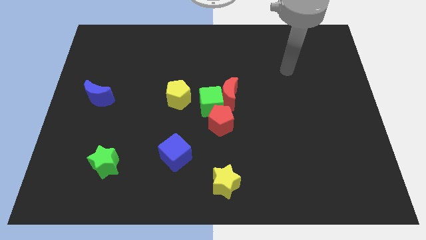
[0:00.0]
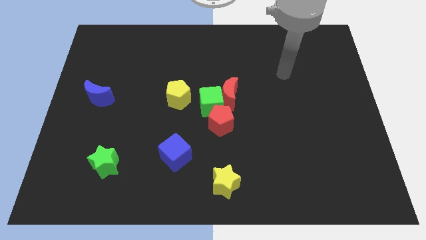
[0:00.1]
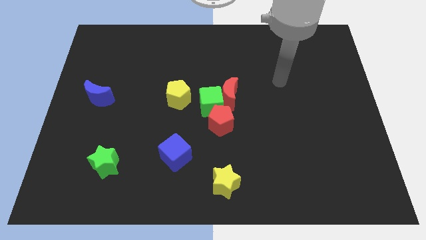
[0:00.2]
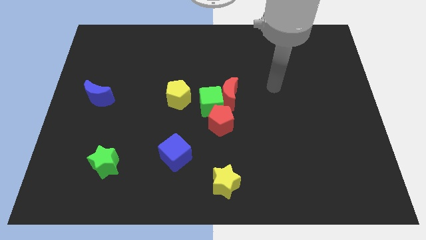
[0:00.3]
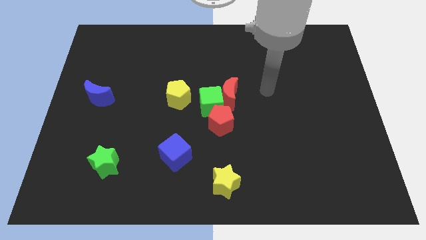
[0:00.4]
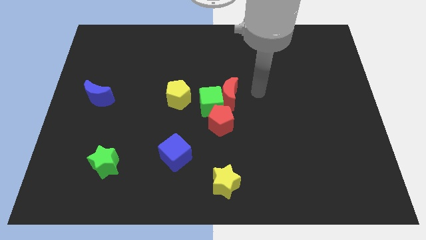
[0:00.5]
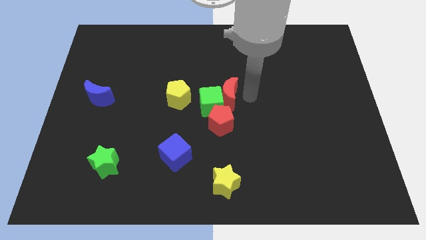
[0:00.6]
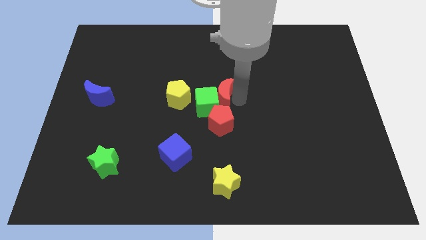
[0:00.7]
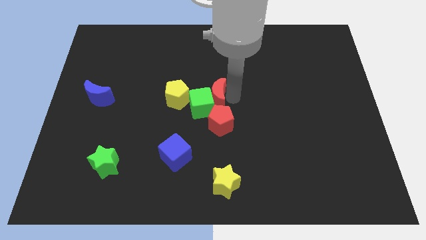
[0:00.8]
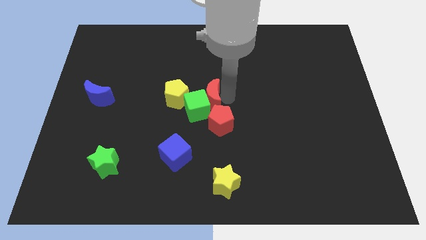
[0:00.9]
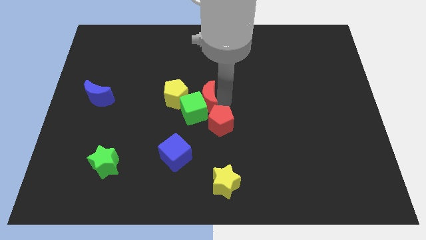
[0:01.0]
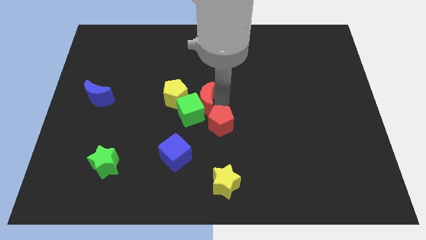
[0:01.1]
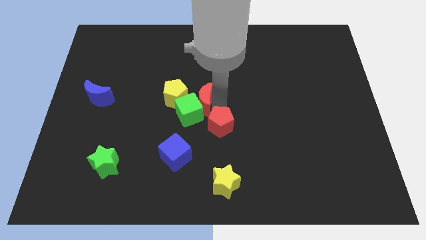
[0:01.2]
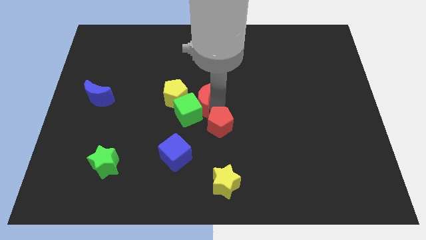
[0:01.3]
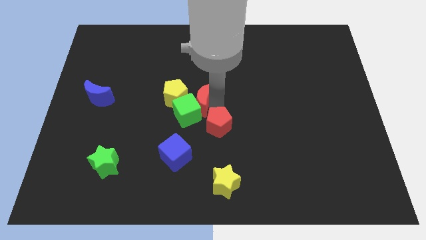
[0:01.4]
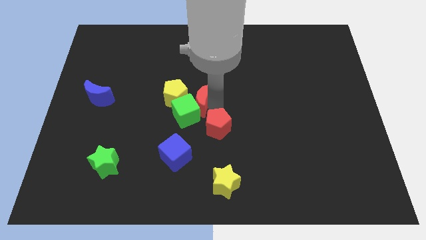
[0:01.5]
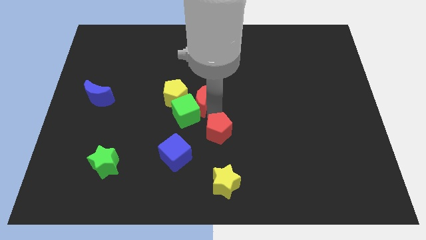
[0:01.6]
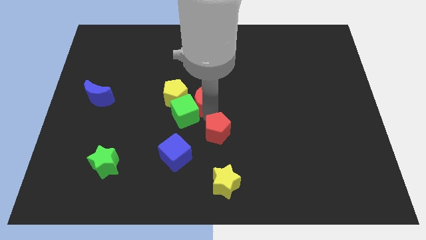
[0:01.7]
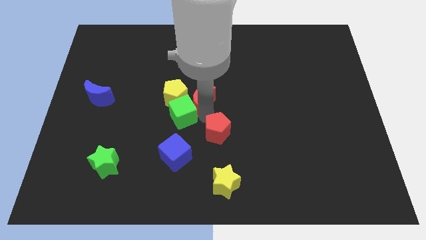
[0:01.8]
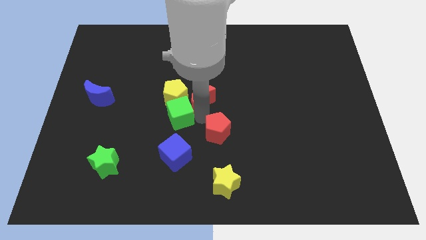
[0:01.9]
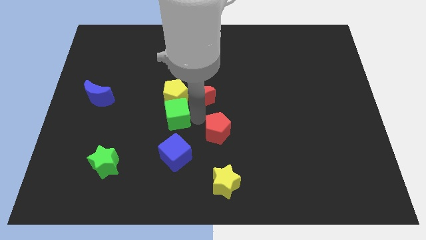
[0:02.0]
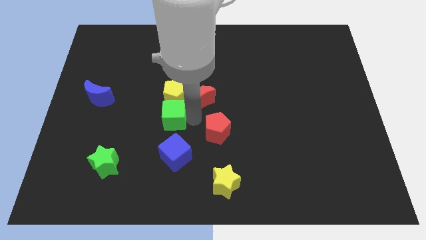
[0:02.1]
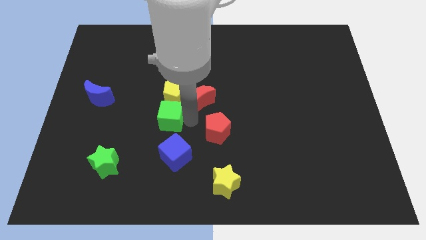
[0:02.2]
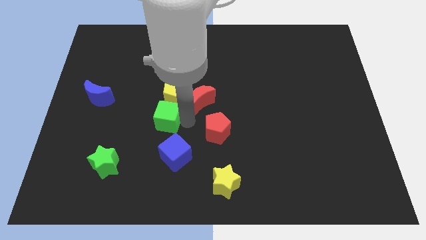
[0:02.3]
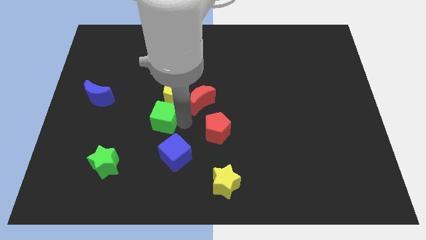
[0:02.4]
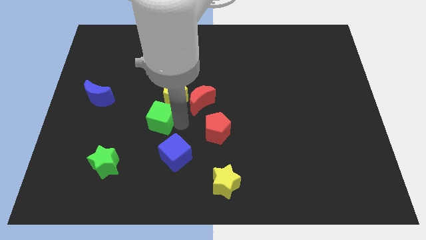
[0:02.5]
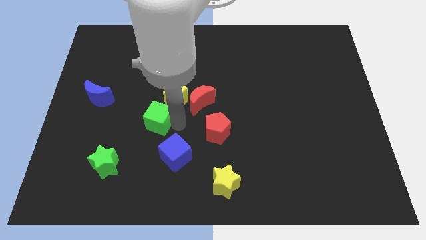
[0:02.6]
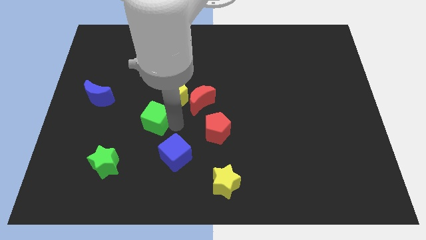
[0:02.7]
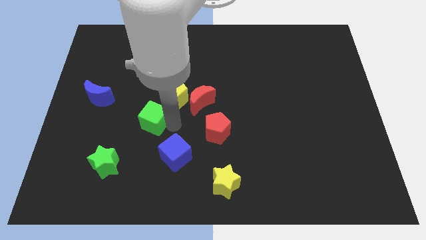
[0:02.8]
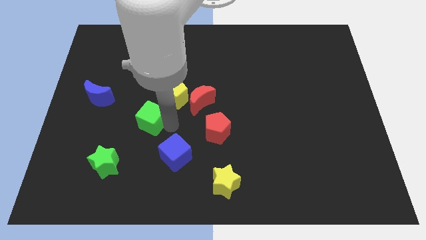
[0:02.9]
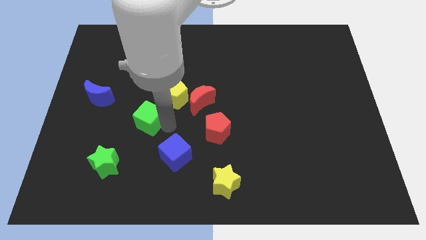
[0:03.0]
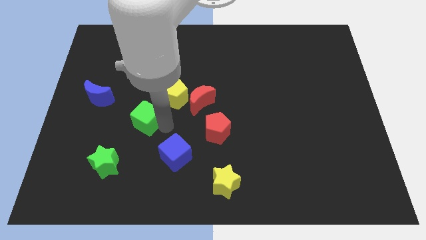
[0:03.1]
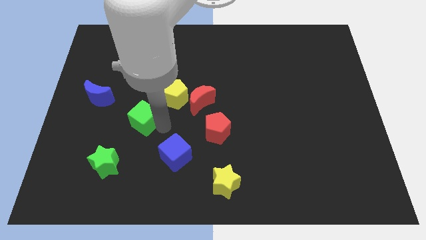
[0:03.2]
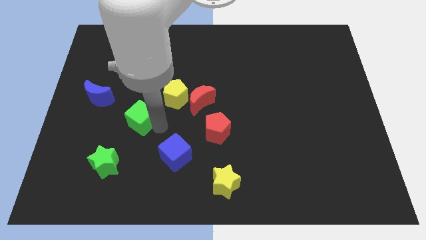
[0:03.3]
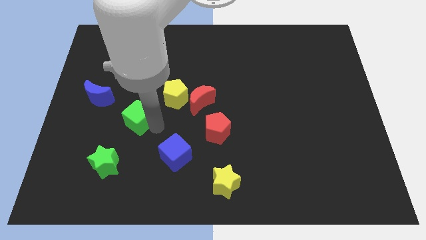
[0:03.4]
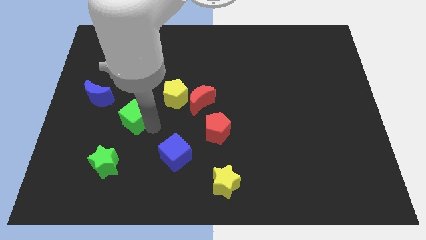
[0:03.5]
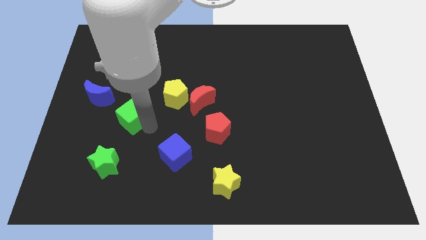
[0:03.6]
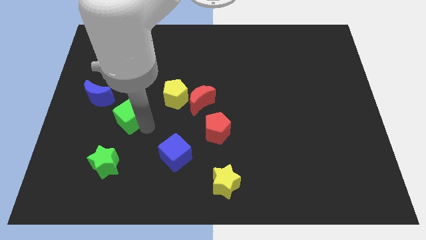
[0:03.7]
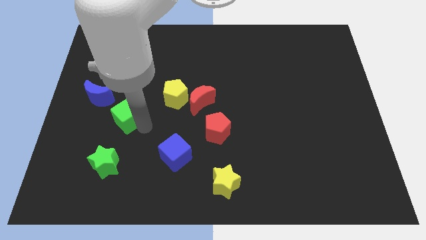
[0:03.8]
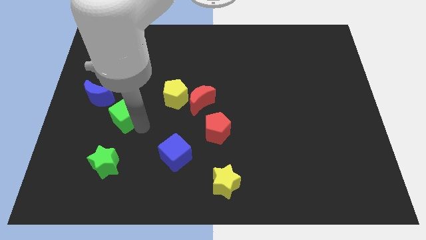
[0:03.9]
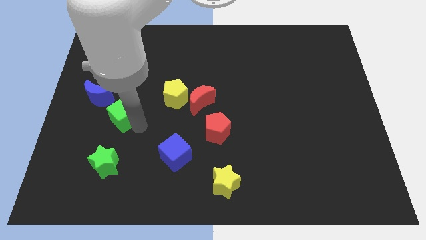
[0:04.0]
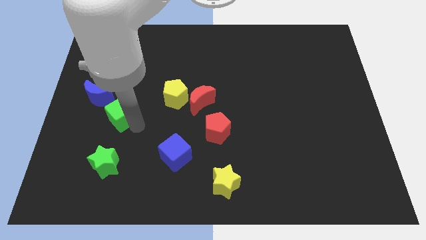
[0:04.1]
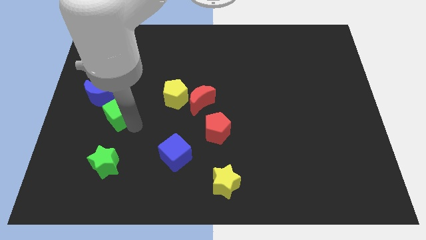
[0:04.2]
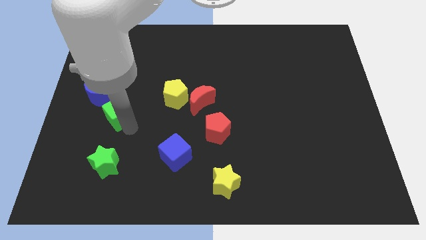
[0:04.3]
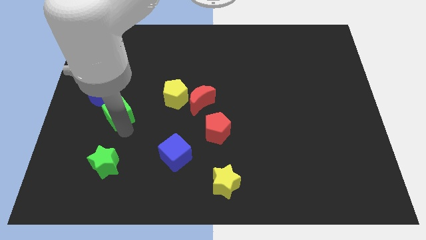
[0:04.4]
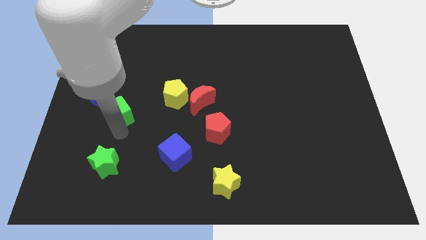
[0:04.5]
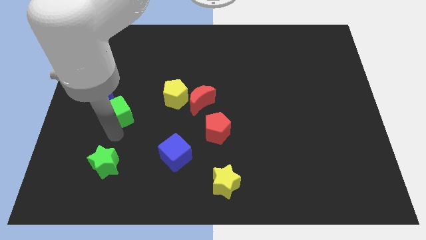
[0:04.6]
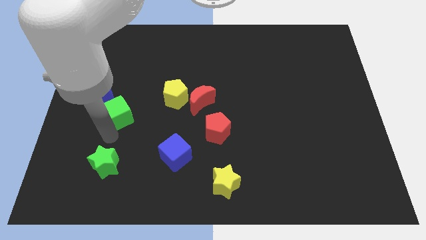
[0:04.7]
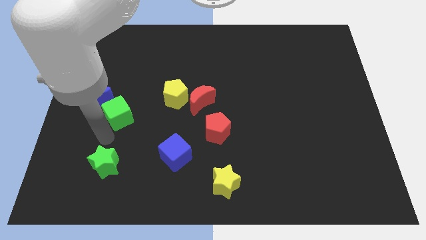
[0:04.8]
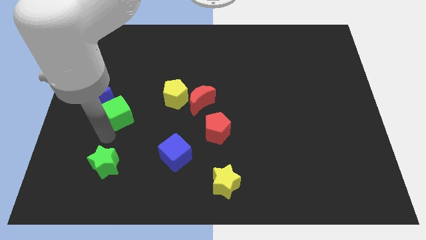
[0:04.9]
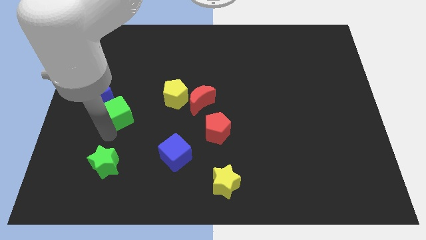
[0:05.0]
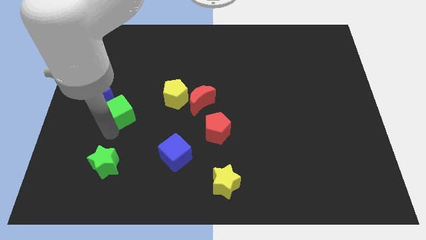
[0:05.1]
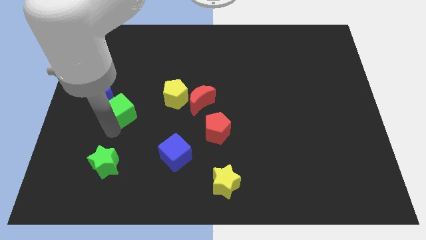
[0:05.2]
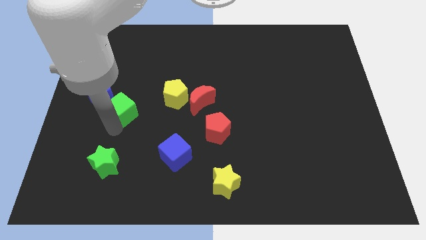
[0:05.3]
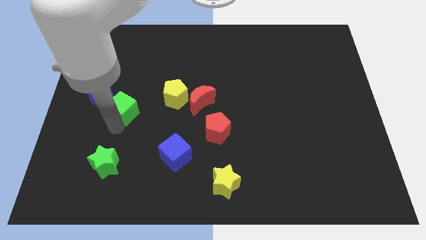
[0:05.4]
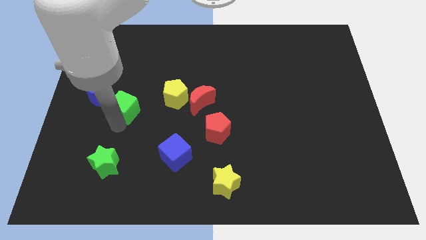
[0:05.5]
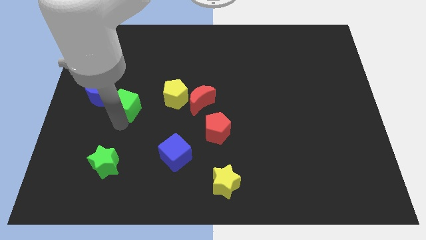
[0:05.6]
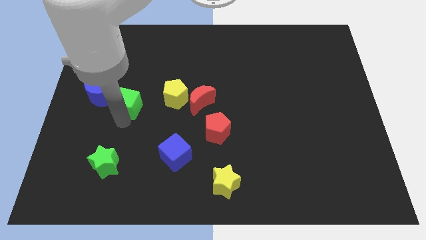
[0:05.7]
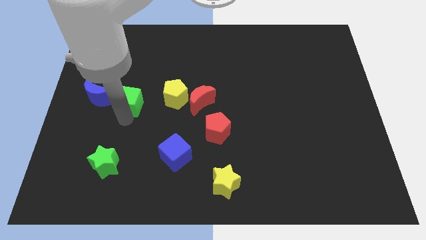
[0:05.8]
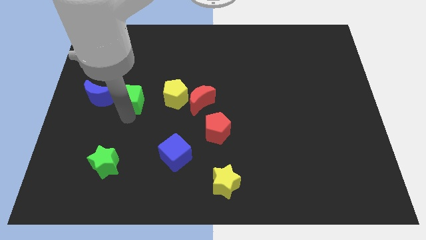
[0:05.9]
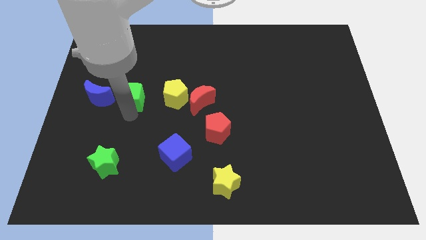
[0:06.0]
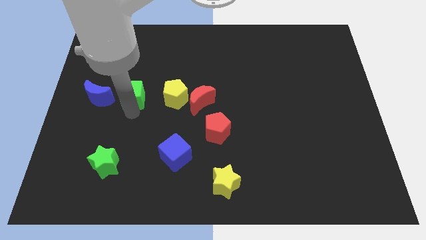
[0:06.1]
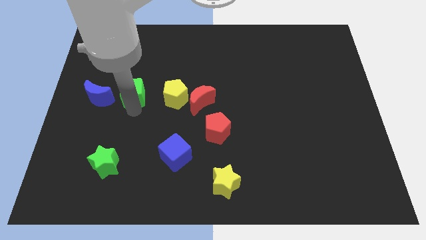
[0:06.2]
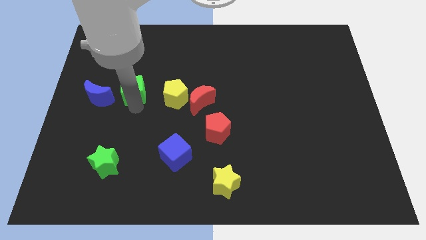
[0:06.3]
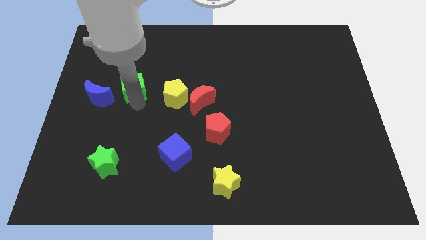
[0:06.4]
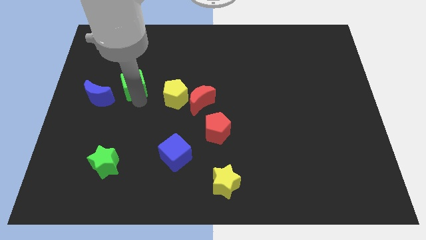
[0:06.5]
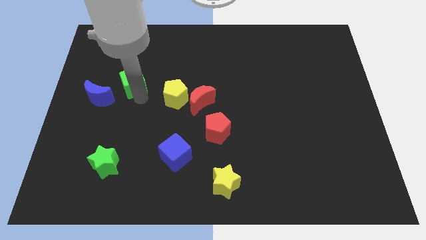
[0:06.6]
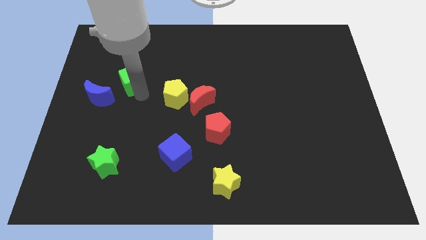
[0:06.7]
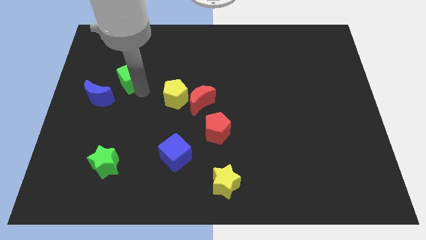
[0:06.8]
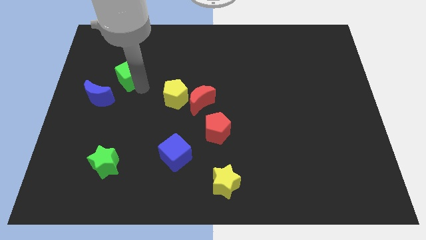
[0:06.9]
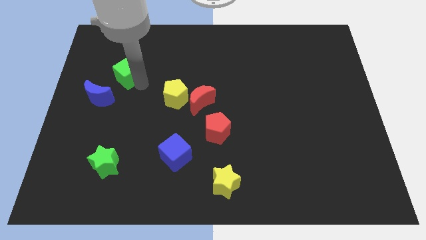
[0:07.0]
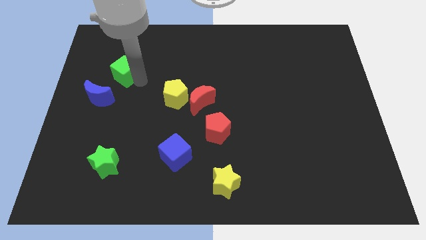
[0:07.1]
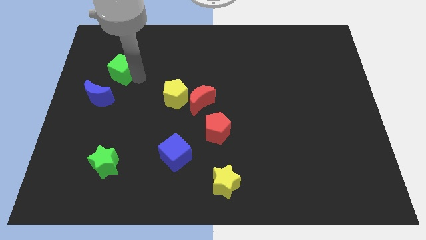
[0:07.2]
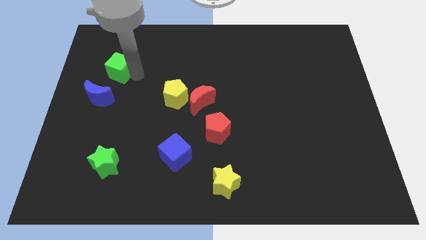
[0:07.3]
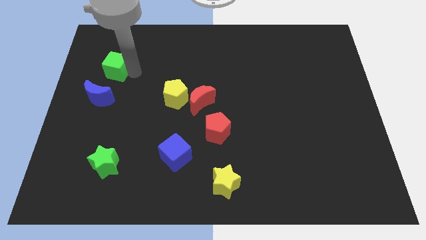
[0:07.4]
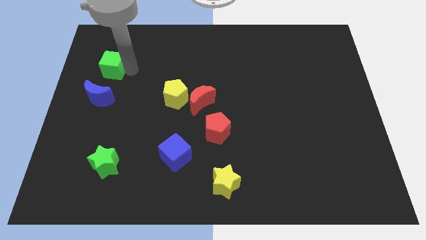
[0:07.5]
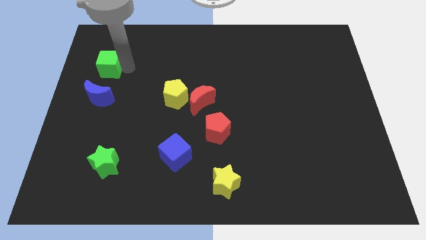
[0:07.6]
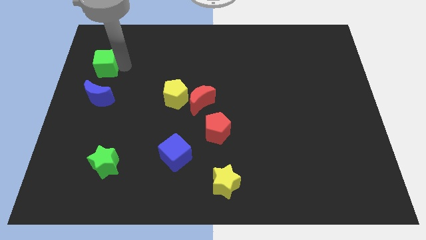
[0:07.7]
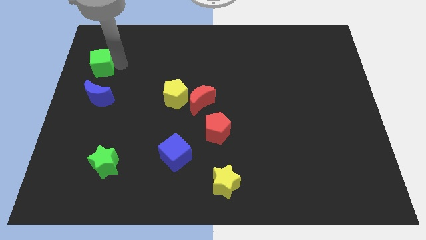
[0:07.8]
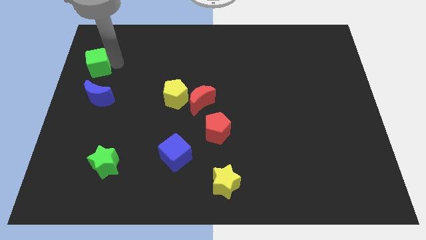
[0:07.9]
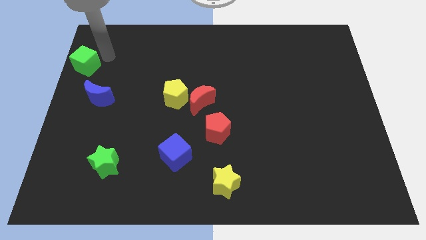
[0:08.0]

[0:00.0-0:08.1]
put the green cube to the center left
